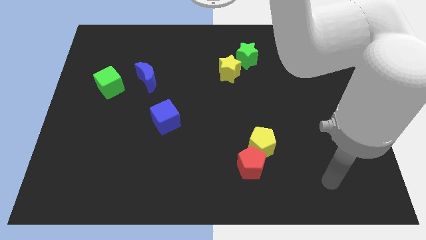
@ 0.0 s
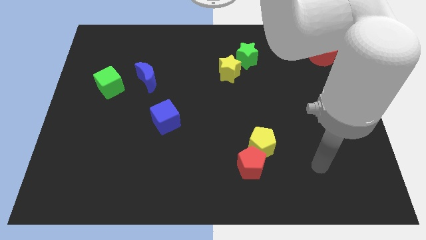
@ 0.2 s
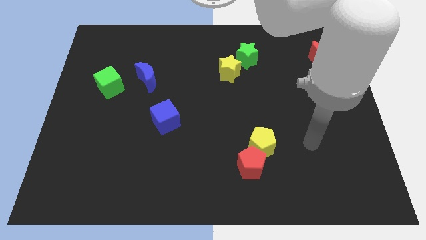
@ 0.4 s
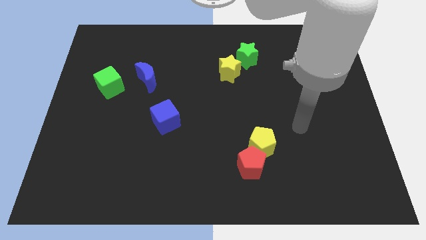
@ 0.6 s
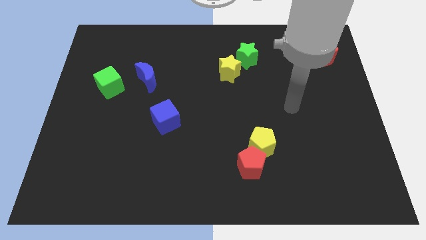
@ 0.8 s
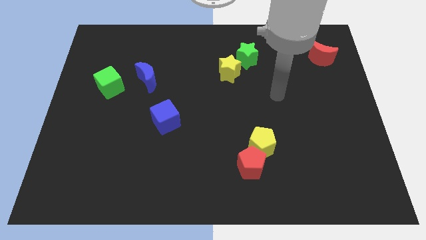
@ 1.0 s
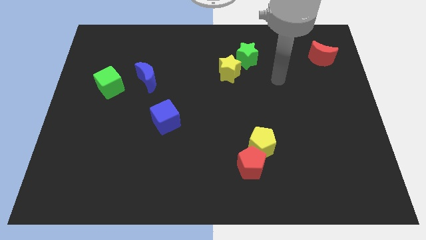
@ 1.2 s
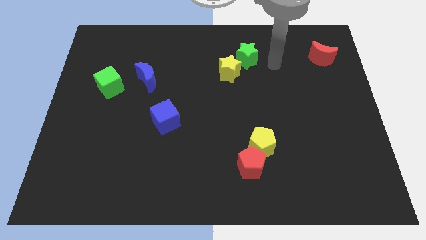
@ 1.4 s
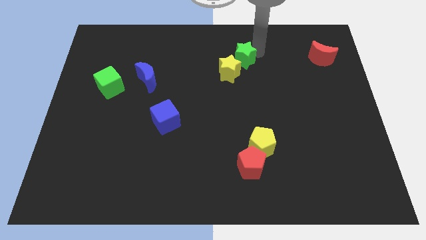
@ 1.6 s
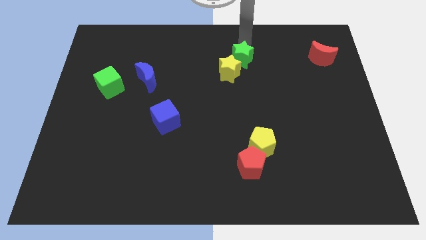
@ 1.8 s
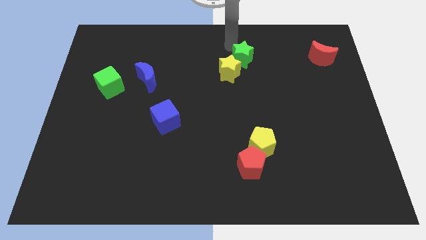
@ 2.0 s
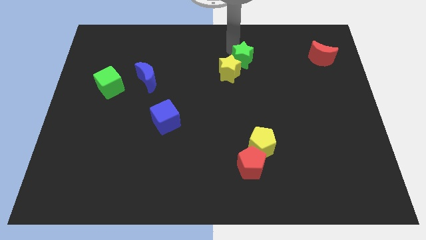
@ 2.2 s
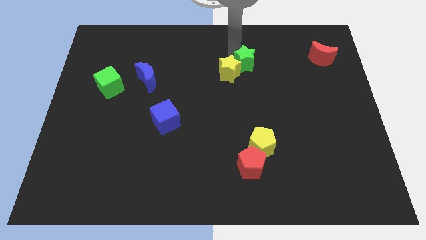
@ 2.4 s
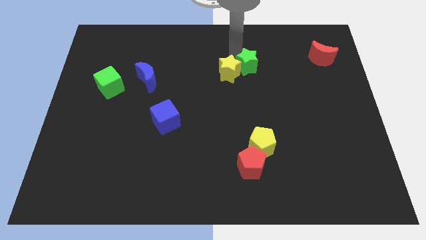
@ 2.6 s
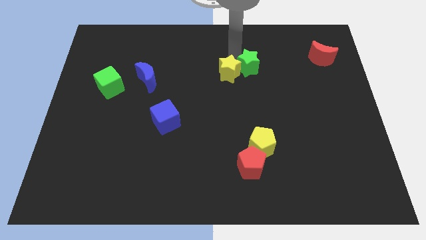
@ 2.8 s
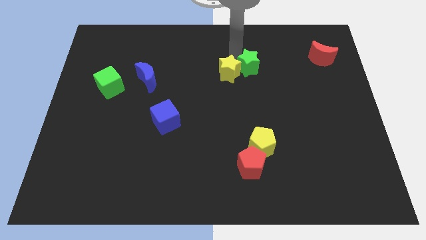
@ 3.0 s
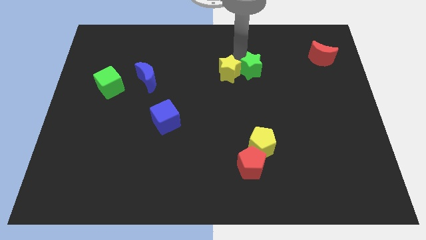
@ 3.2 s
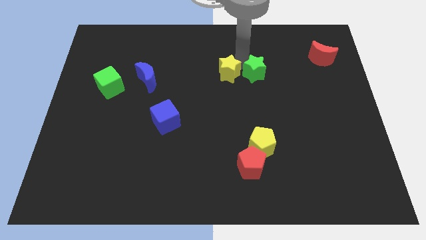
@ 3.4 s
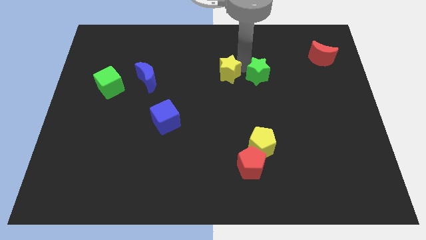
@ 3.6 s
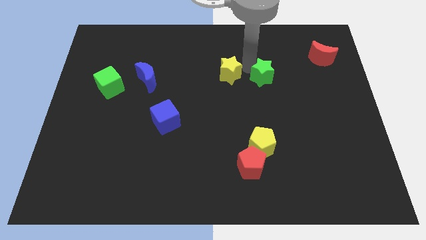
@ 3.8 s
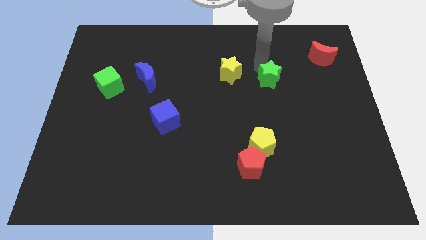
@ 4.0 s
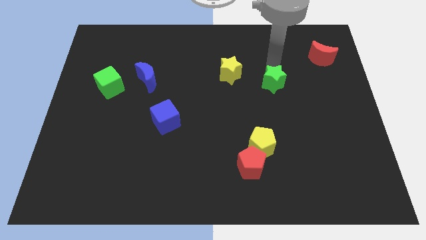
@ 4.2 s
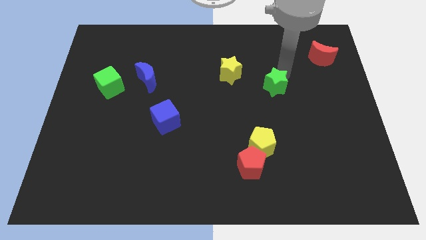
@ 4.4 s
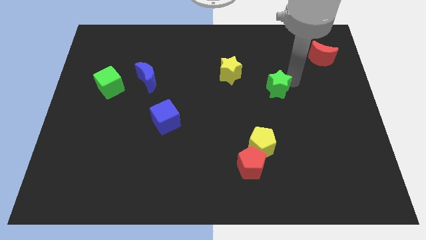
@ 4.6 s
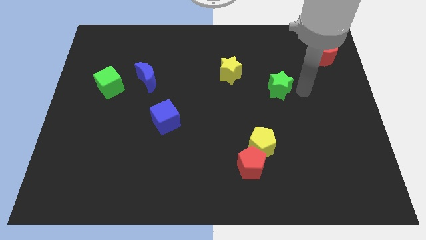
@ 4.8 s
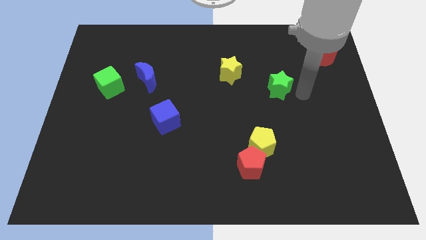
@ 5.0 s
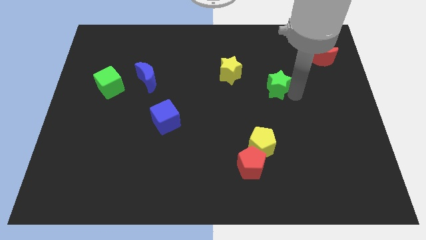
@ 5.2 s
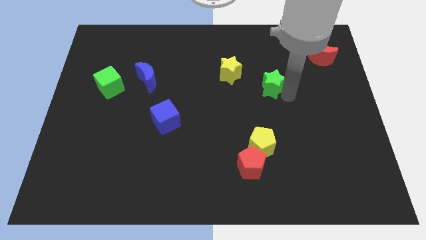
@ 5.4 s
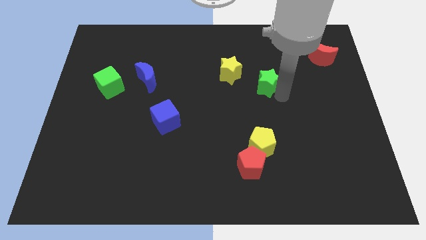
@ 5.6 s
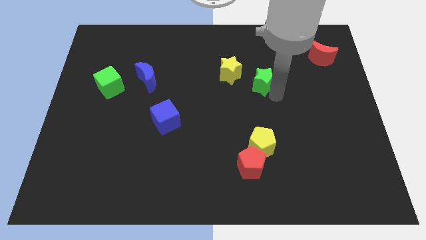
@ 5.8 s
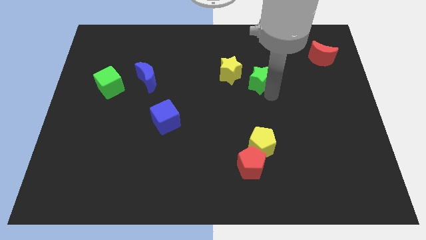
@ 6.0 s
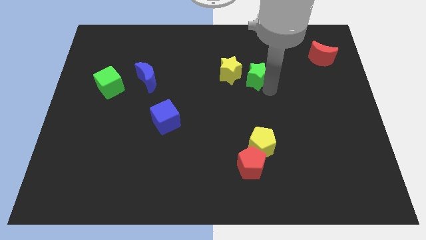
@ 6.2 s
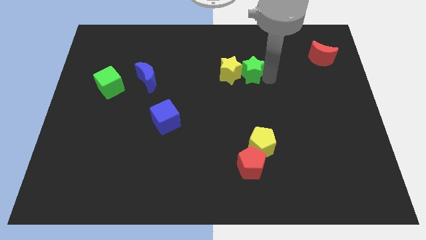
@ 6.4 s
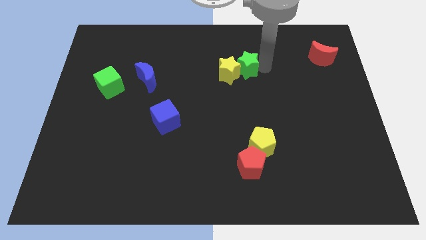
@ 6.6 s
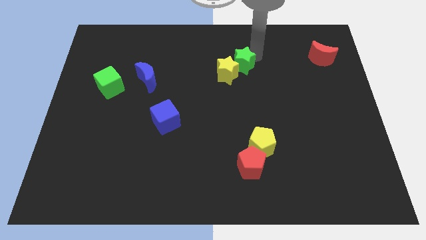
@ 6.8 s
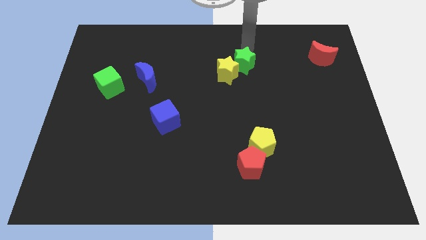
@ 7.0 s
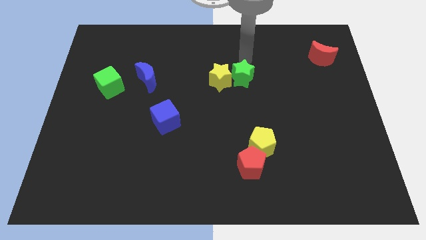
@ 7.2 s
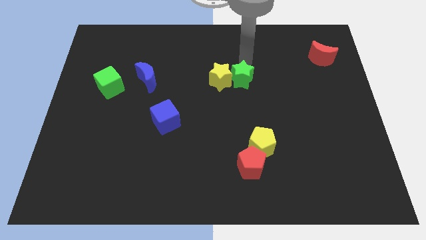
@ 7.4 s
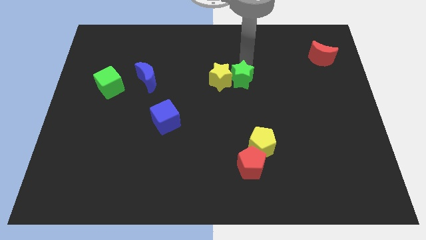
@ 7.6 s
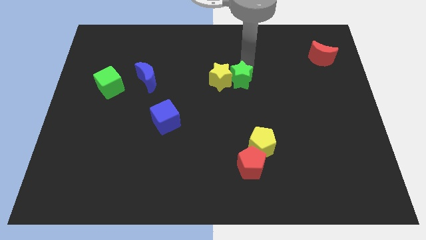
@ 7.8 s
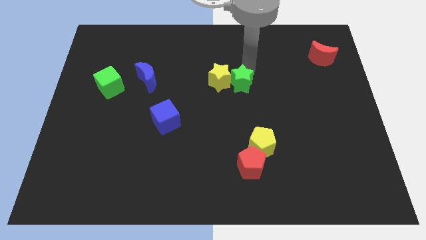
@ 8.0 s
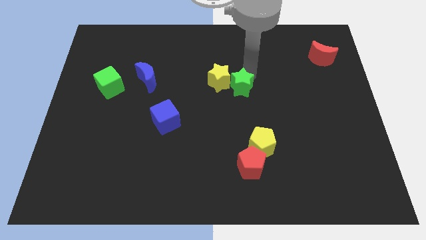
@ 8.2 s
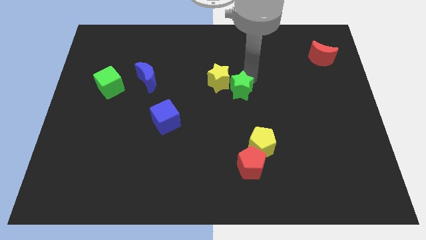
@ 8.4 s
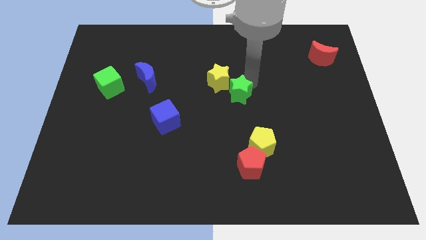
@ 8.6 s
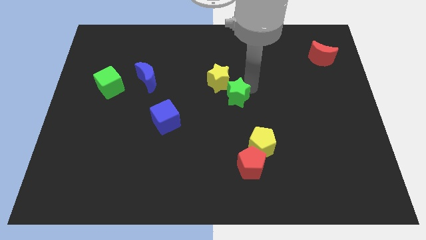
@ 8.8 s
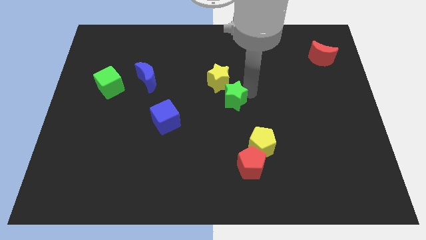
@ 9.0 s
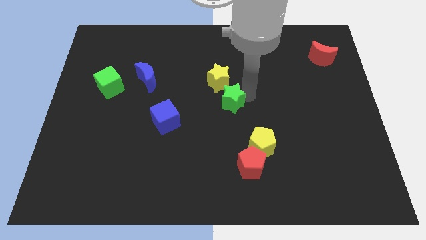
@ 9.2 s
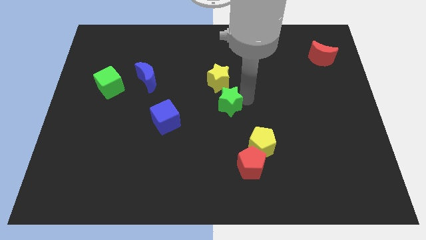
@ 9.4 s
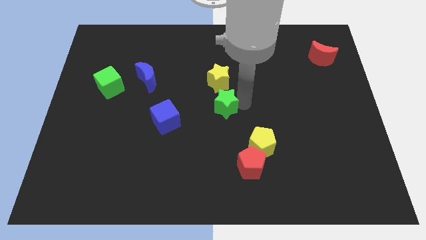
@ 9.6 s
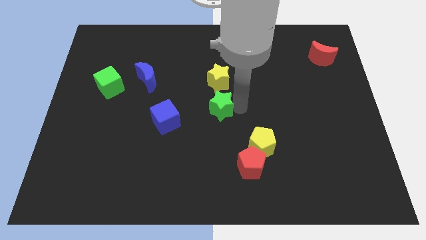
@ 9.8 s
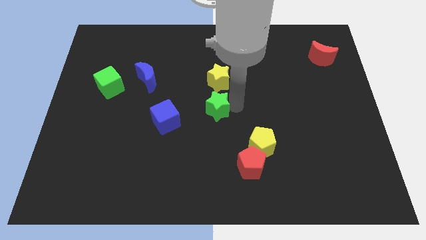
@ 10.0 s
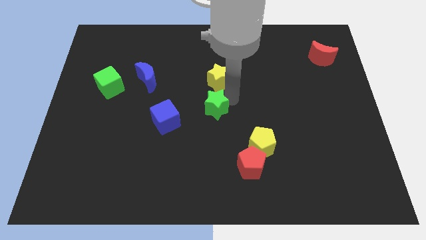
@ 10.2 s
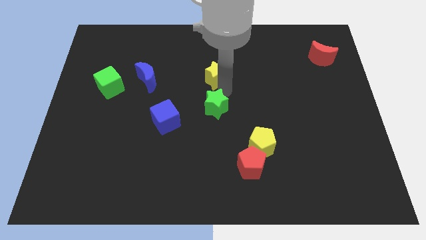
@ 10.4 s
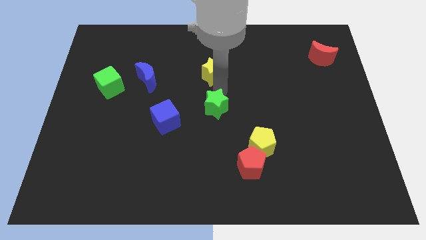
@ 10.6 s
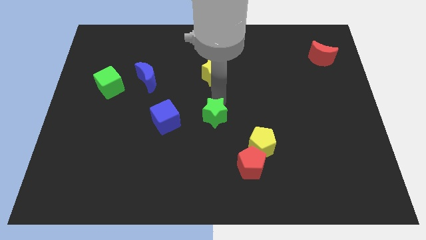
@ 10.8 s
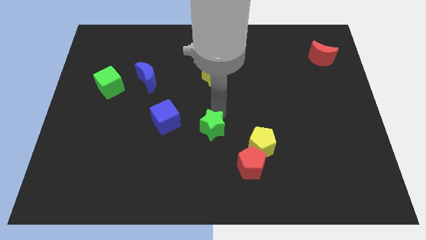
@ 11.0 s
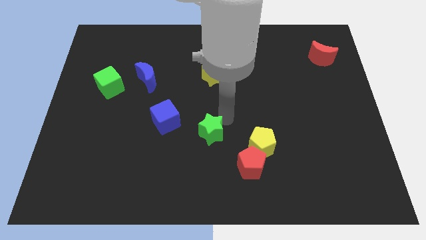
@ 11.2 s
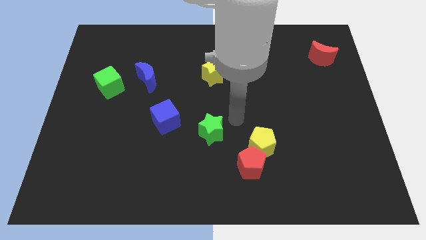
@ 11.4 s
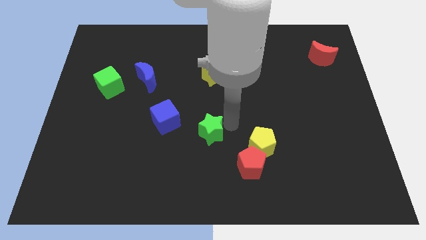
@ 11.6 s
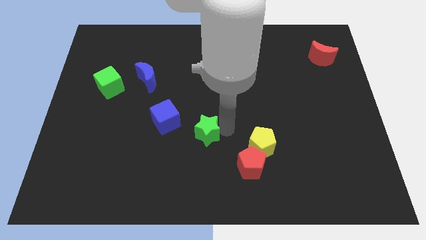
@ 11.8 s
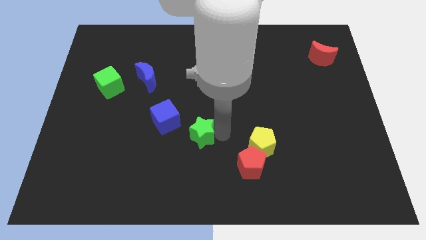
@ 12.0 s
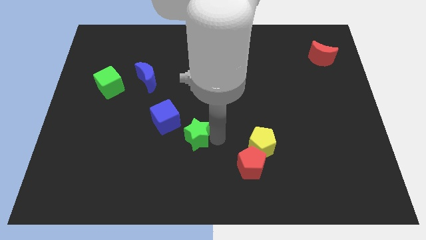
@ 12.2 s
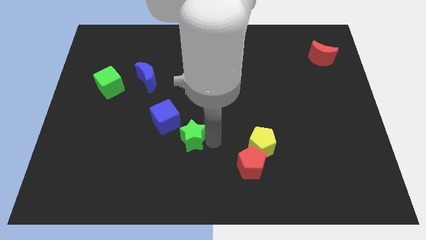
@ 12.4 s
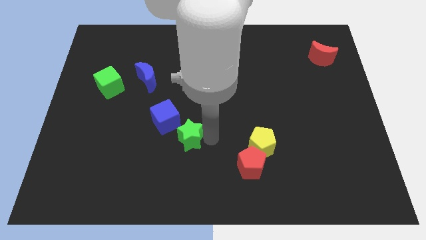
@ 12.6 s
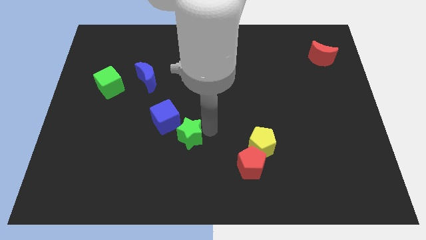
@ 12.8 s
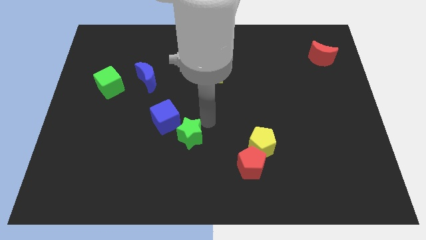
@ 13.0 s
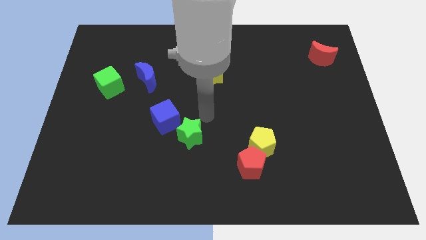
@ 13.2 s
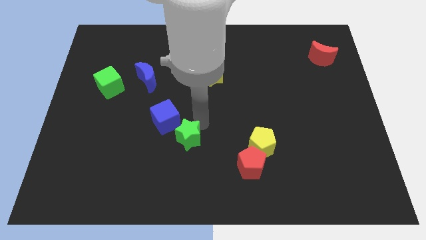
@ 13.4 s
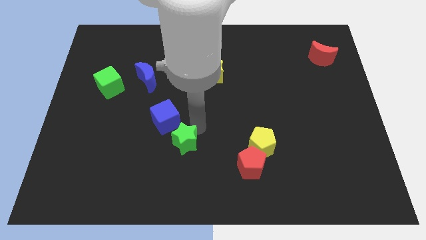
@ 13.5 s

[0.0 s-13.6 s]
push the green star to the bottom side of the blue cube

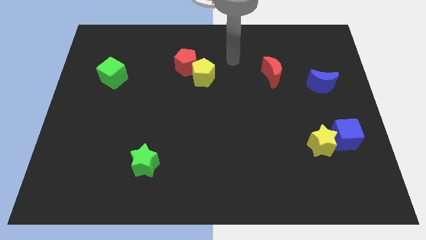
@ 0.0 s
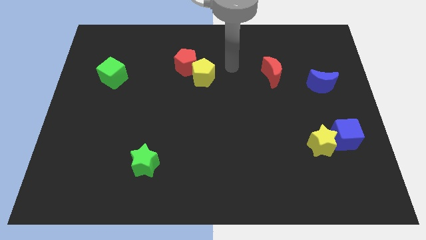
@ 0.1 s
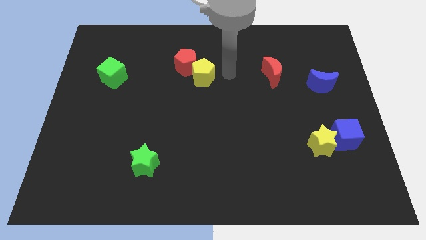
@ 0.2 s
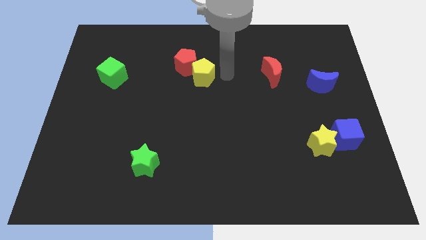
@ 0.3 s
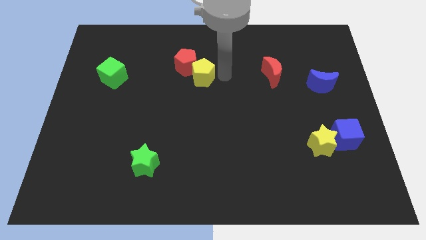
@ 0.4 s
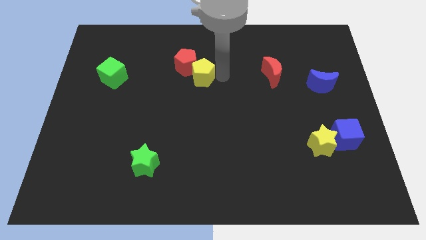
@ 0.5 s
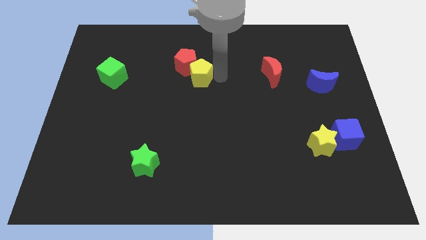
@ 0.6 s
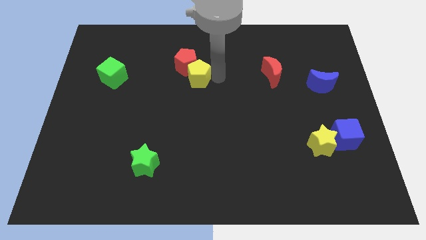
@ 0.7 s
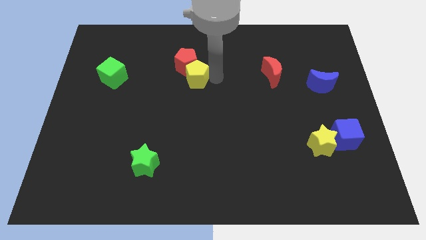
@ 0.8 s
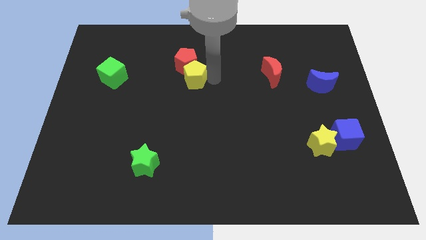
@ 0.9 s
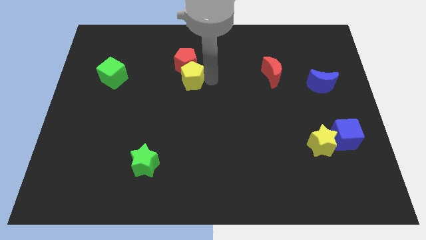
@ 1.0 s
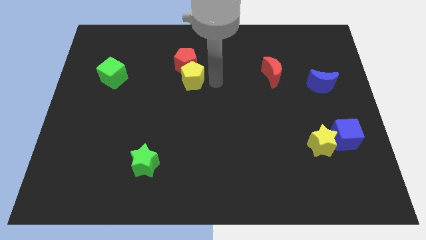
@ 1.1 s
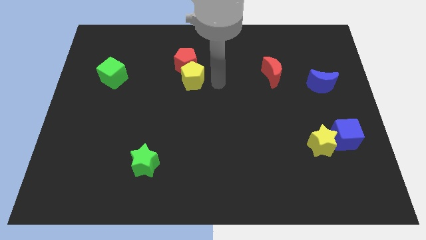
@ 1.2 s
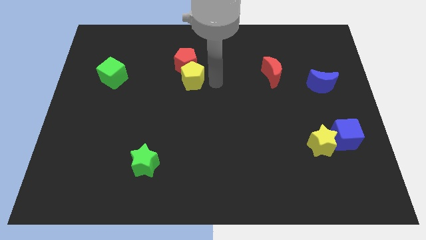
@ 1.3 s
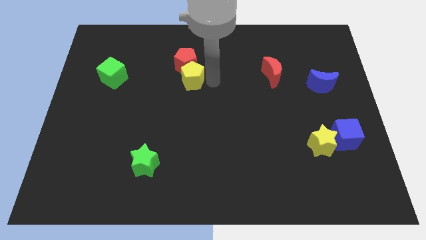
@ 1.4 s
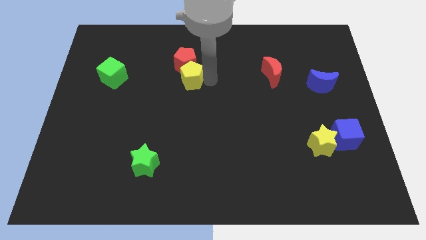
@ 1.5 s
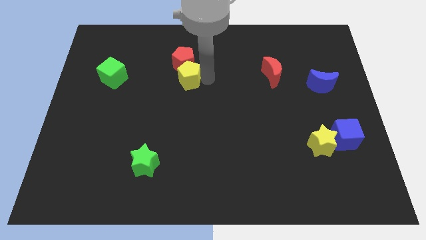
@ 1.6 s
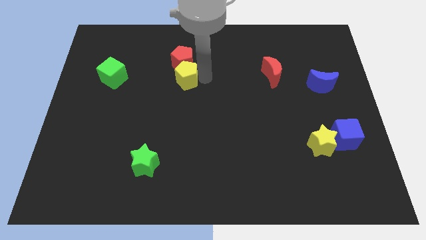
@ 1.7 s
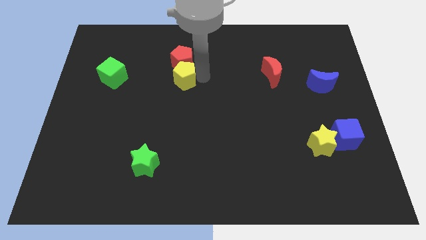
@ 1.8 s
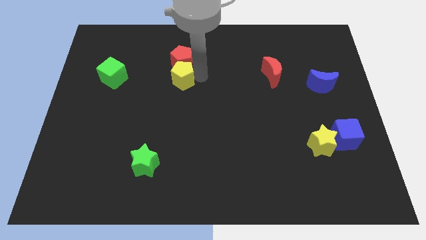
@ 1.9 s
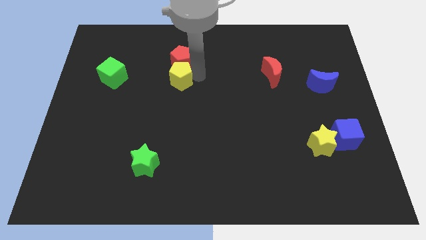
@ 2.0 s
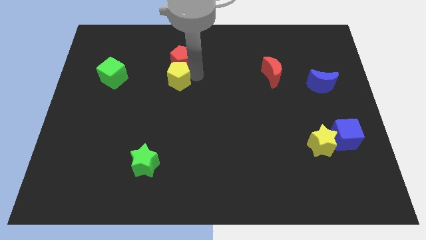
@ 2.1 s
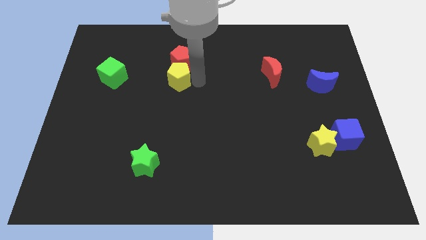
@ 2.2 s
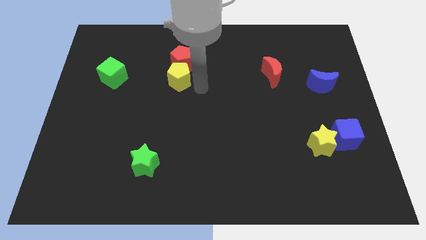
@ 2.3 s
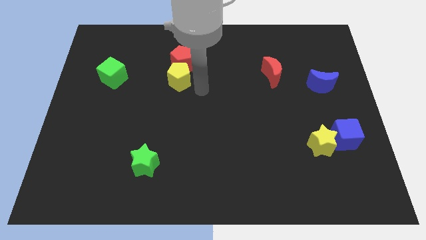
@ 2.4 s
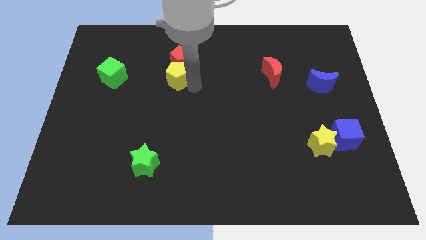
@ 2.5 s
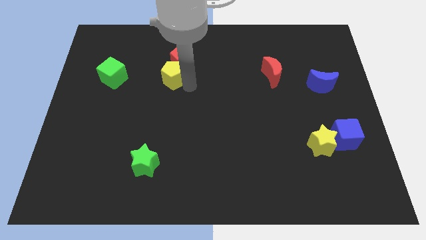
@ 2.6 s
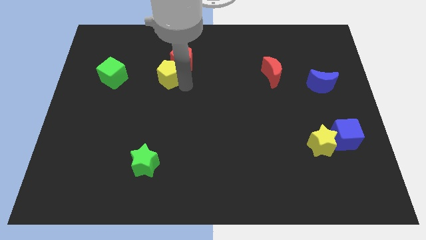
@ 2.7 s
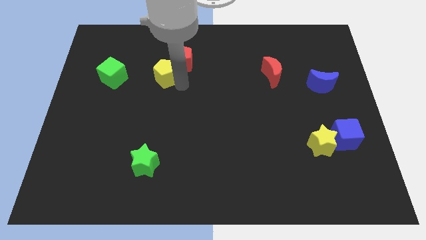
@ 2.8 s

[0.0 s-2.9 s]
slide the yellow pentagon to the left side of the red pentagon
